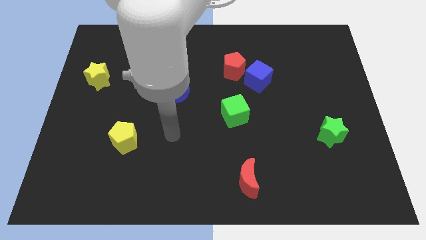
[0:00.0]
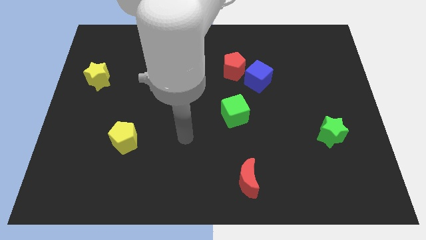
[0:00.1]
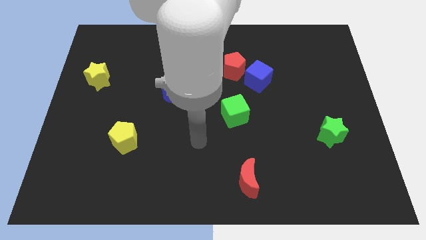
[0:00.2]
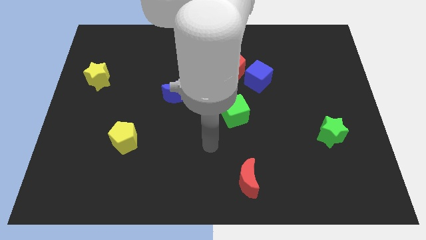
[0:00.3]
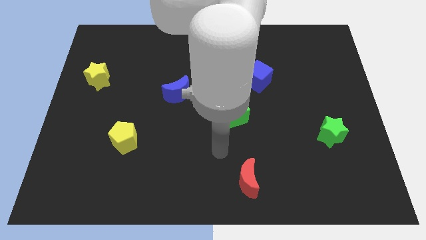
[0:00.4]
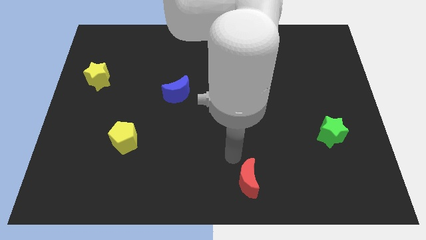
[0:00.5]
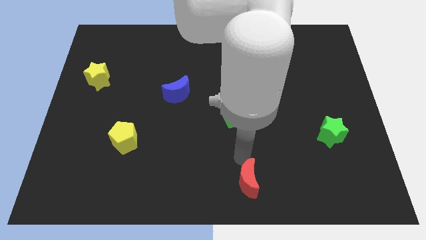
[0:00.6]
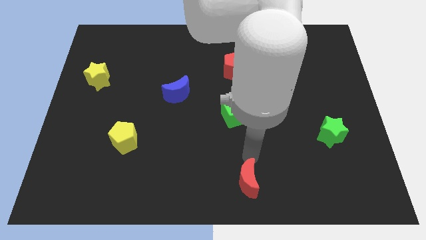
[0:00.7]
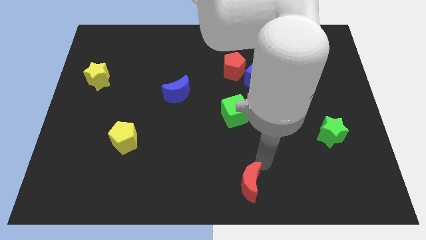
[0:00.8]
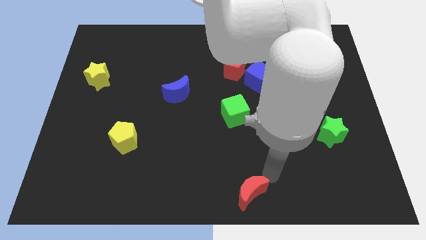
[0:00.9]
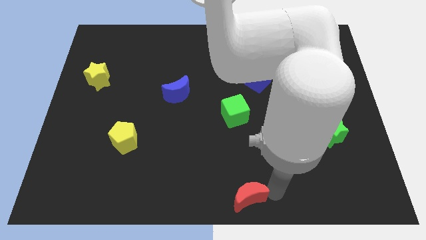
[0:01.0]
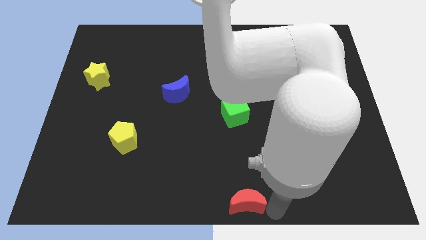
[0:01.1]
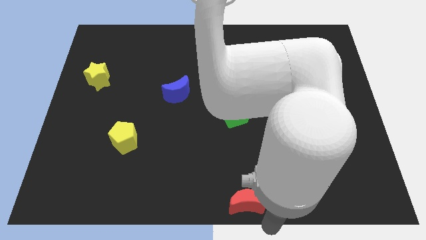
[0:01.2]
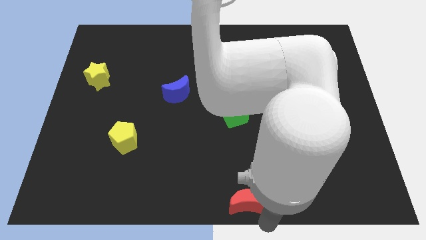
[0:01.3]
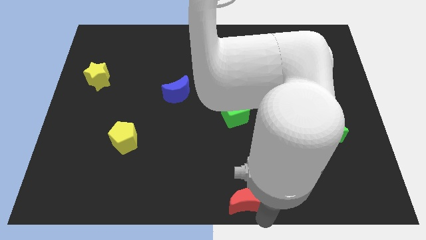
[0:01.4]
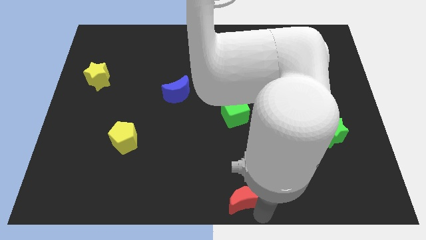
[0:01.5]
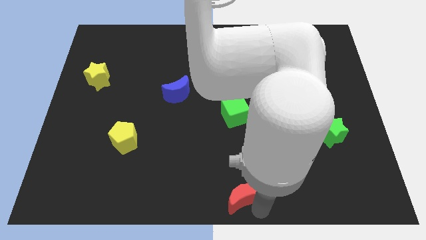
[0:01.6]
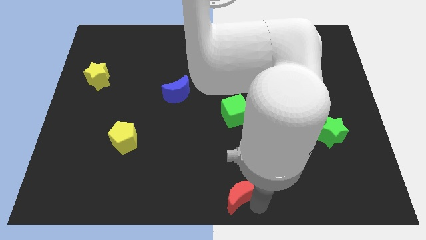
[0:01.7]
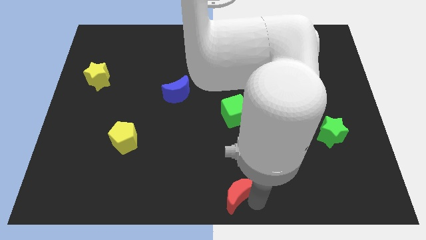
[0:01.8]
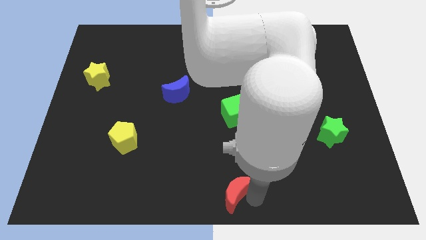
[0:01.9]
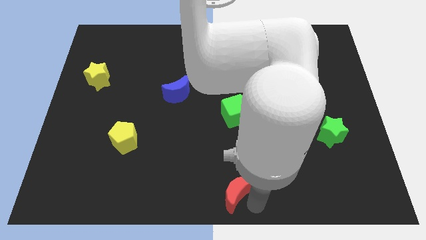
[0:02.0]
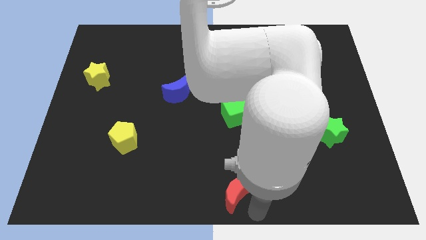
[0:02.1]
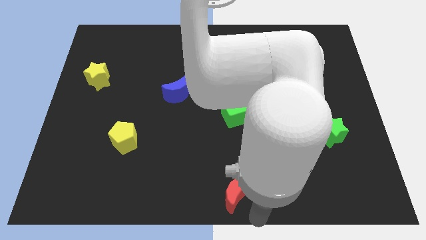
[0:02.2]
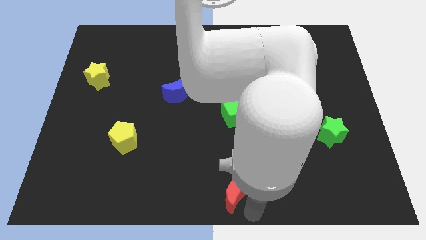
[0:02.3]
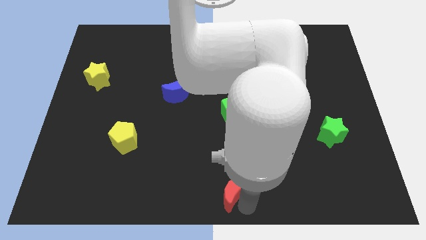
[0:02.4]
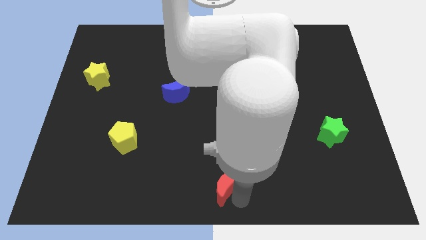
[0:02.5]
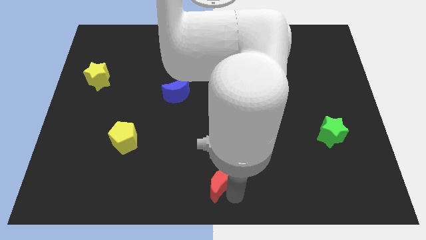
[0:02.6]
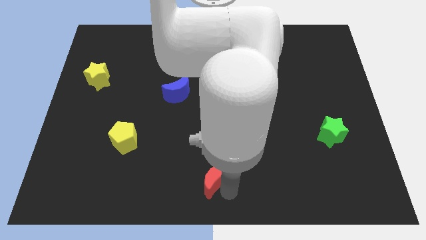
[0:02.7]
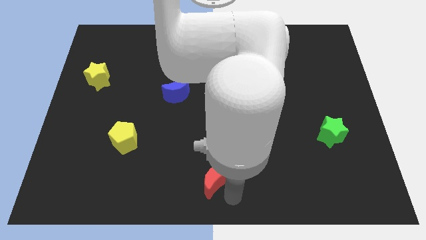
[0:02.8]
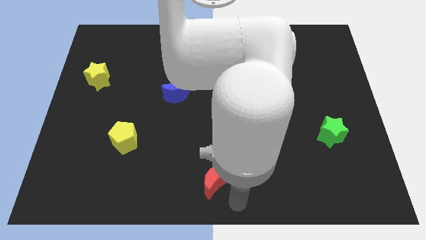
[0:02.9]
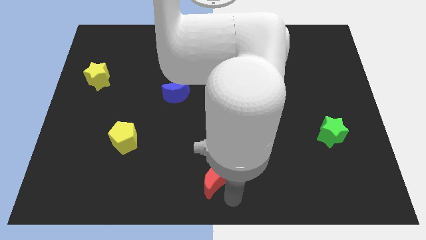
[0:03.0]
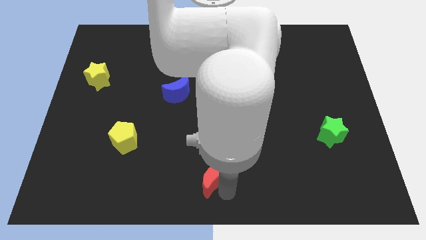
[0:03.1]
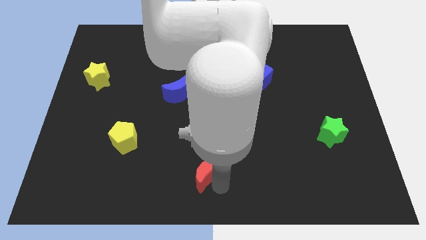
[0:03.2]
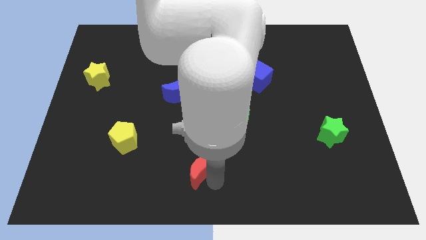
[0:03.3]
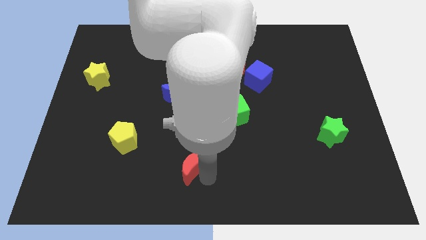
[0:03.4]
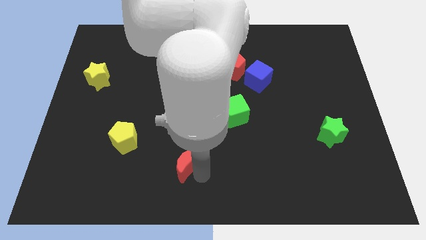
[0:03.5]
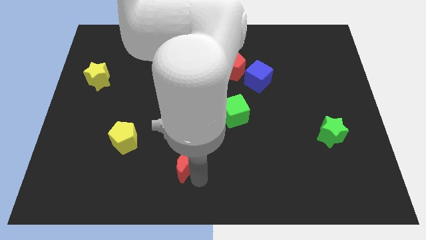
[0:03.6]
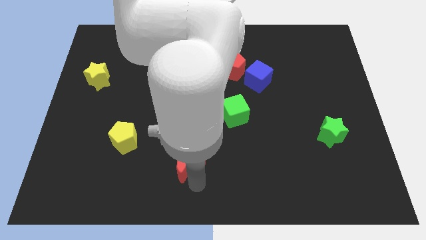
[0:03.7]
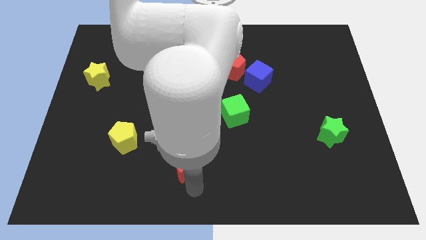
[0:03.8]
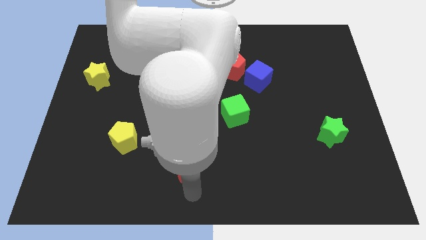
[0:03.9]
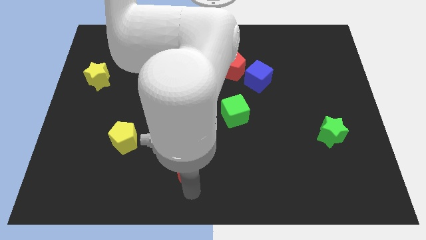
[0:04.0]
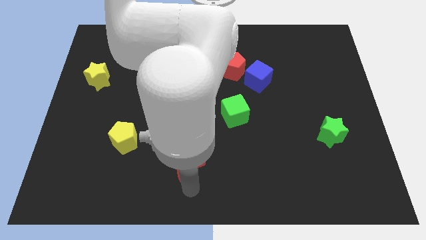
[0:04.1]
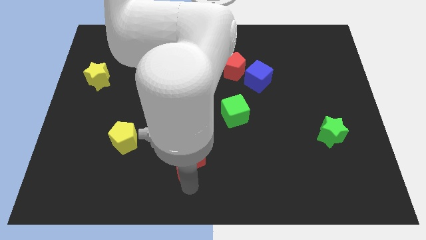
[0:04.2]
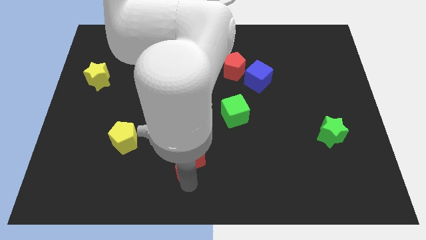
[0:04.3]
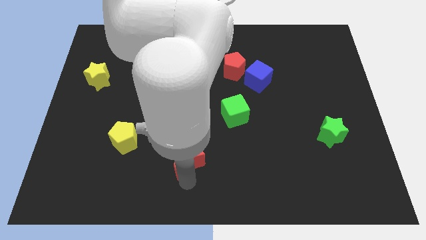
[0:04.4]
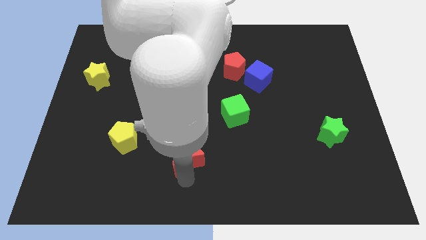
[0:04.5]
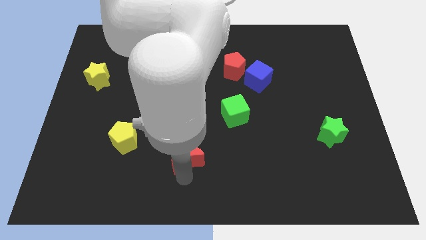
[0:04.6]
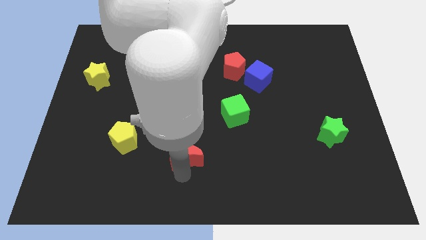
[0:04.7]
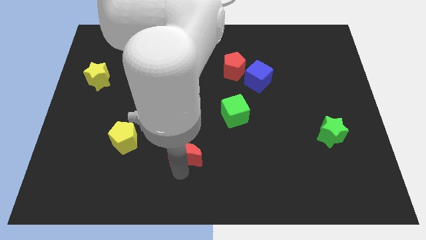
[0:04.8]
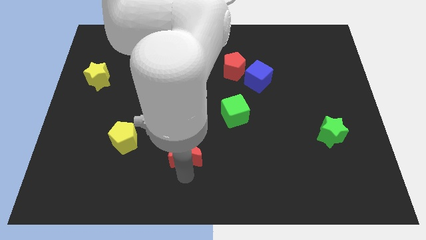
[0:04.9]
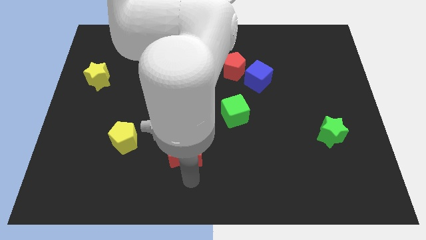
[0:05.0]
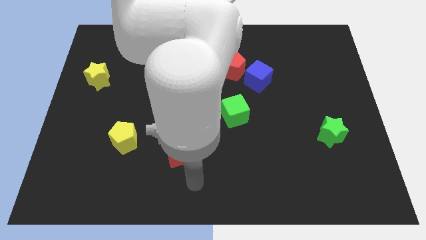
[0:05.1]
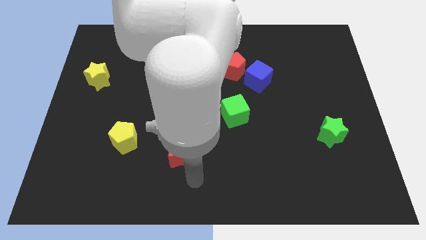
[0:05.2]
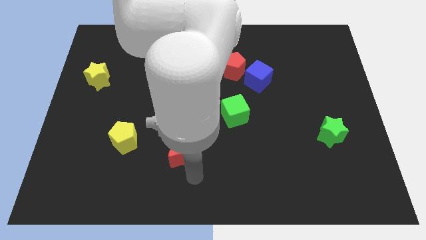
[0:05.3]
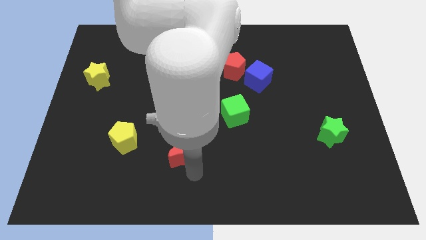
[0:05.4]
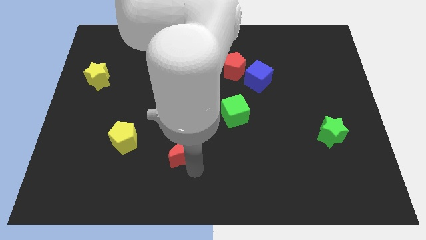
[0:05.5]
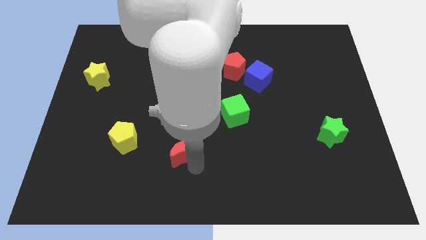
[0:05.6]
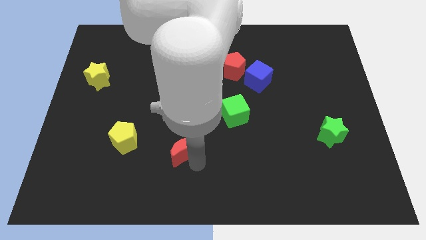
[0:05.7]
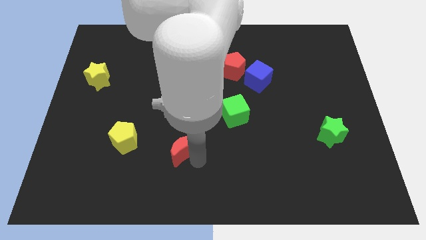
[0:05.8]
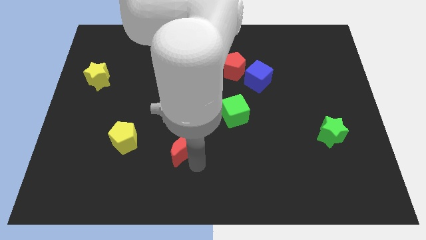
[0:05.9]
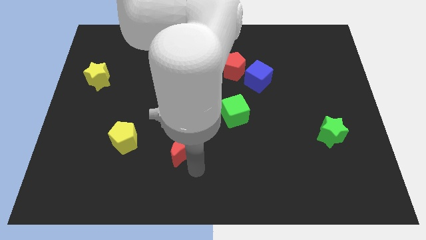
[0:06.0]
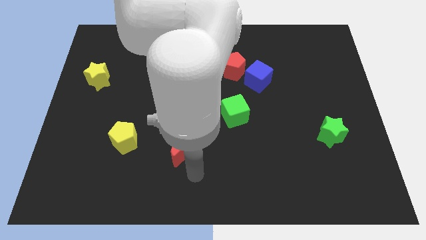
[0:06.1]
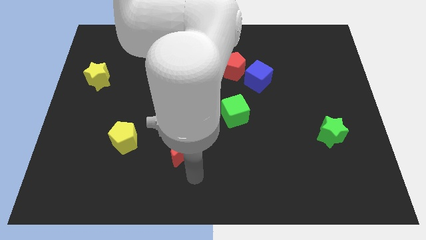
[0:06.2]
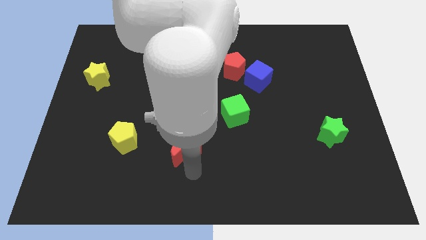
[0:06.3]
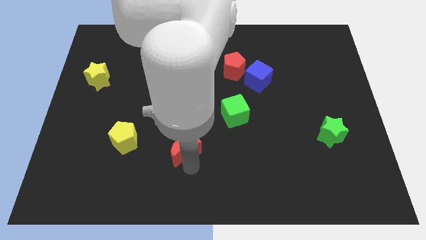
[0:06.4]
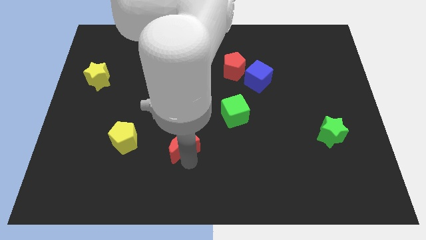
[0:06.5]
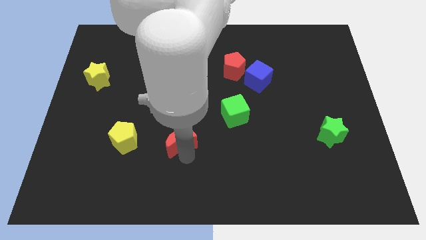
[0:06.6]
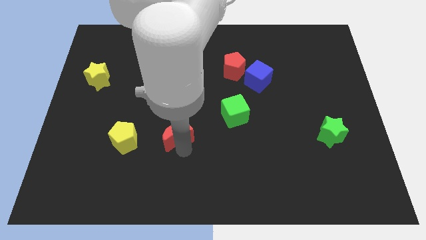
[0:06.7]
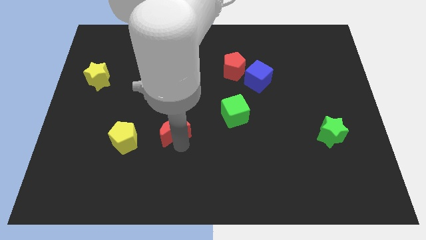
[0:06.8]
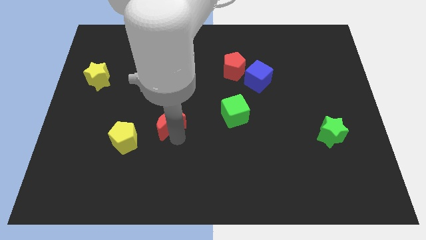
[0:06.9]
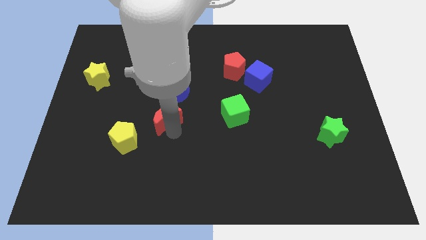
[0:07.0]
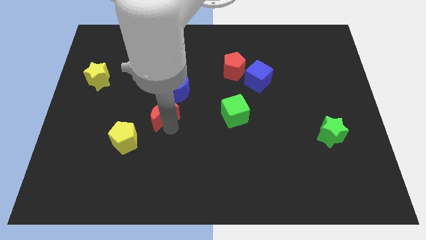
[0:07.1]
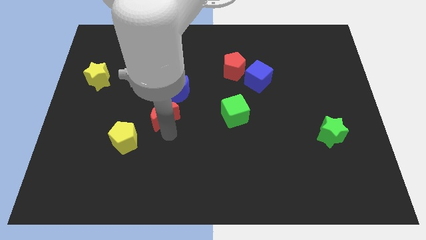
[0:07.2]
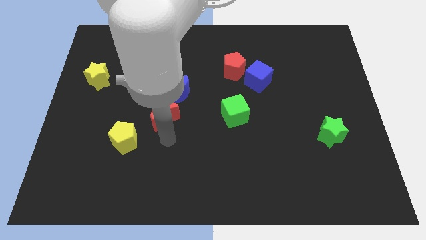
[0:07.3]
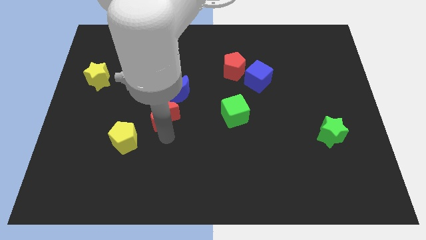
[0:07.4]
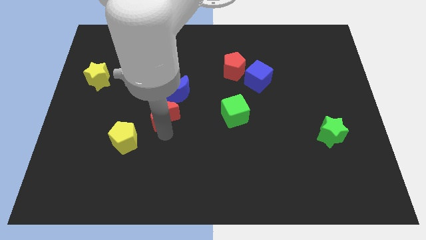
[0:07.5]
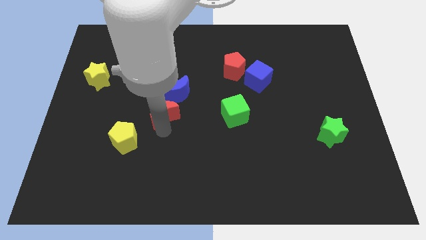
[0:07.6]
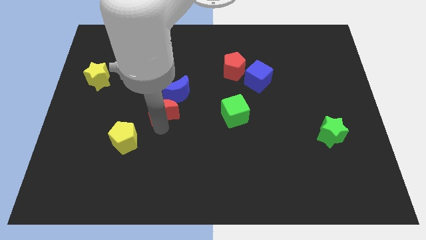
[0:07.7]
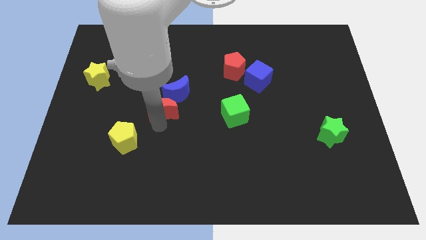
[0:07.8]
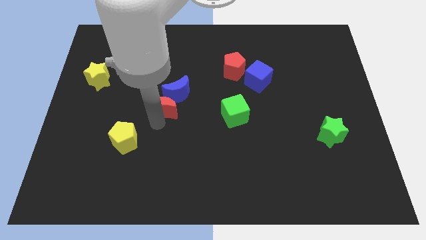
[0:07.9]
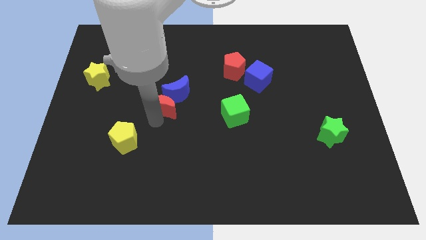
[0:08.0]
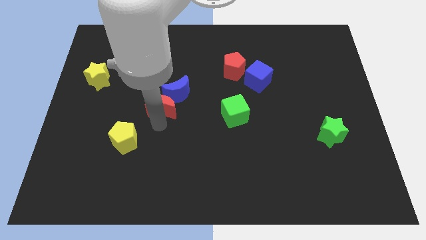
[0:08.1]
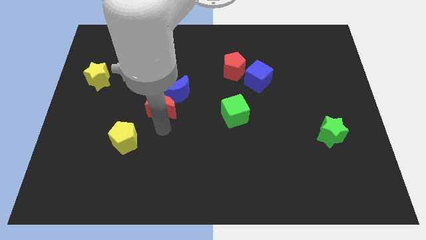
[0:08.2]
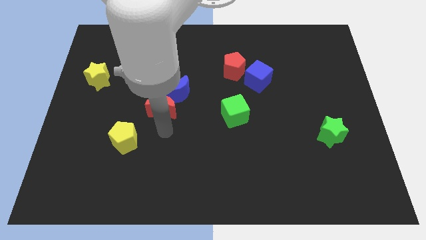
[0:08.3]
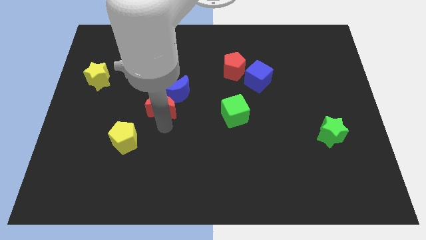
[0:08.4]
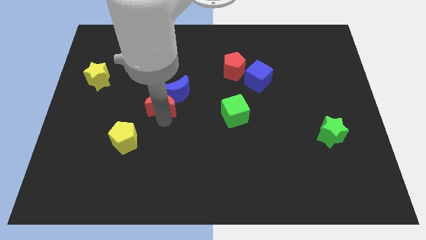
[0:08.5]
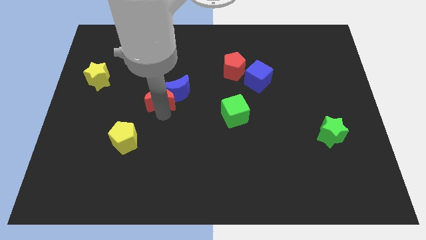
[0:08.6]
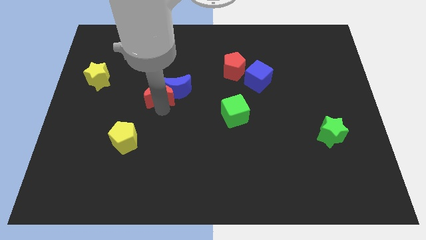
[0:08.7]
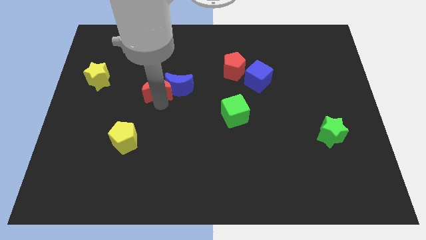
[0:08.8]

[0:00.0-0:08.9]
put the red moon to the top left side of the blue moon
